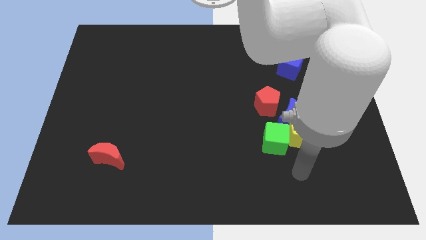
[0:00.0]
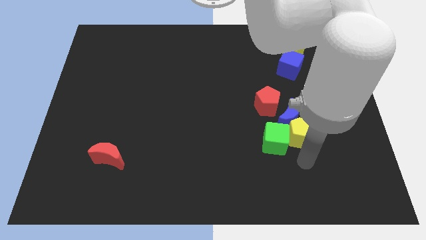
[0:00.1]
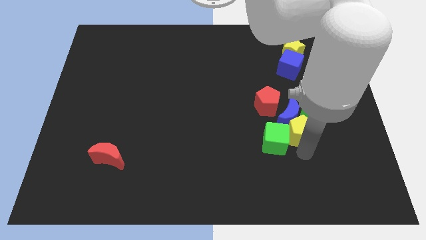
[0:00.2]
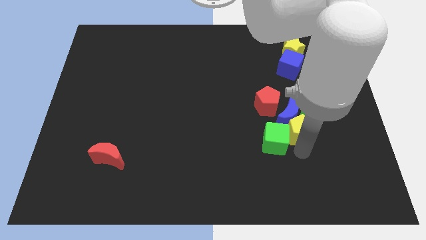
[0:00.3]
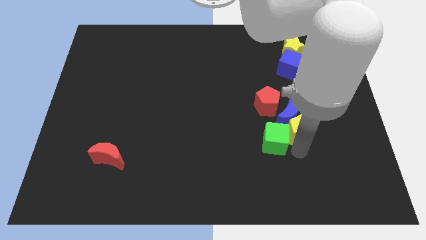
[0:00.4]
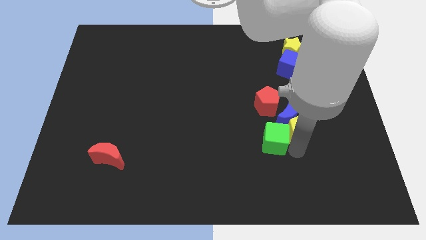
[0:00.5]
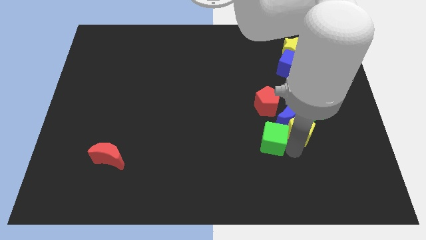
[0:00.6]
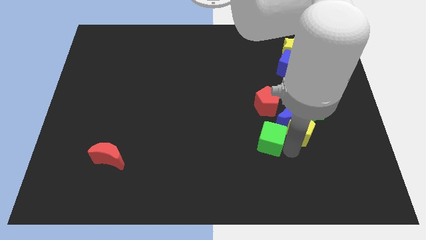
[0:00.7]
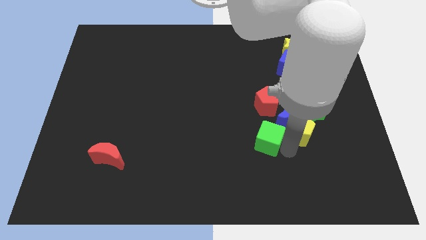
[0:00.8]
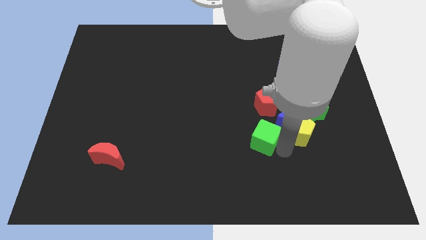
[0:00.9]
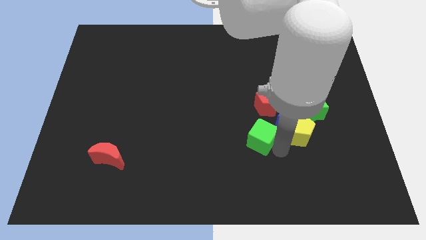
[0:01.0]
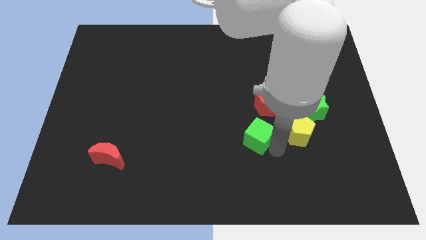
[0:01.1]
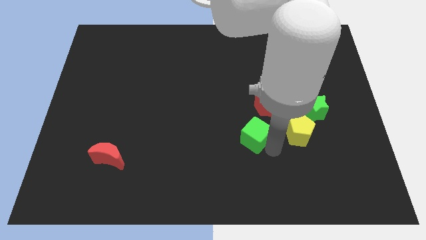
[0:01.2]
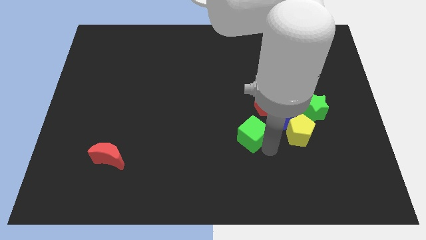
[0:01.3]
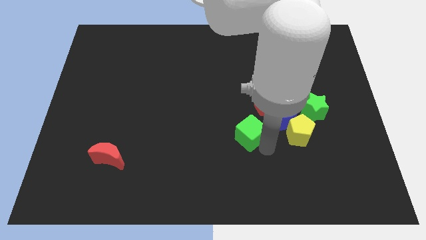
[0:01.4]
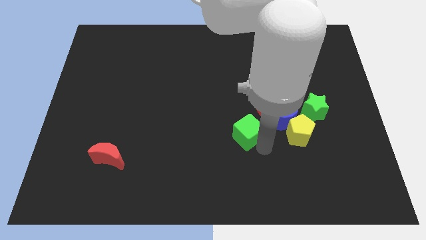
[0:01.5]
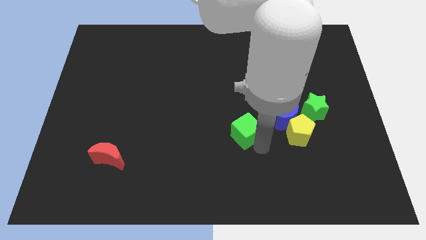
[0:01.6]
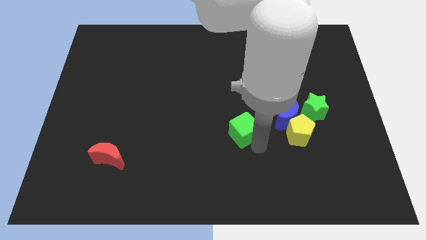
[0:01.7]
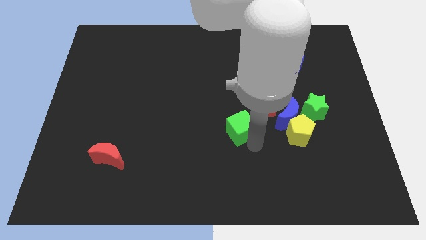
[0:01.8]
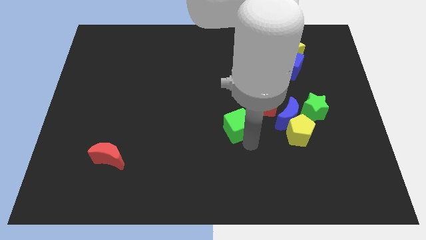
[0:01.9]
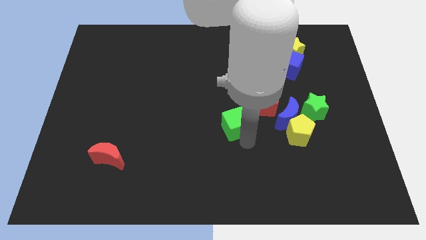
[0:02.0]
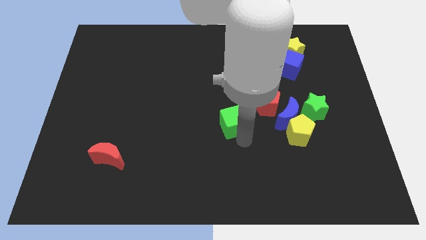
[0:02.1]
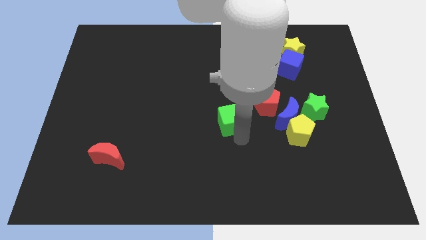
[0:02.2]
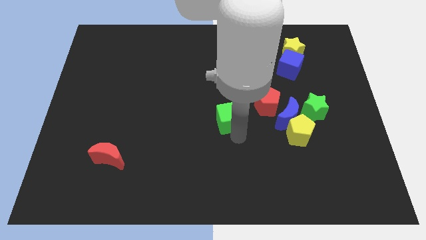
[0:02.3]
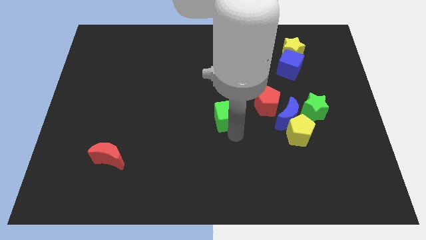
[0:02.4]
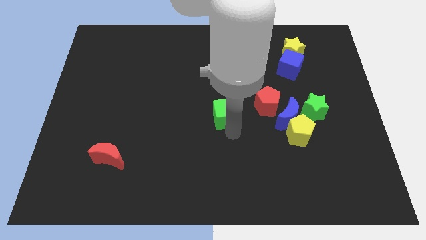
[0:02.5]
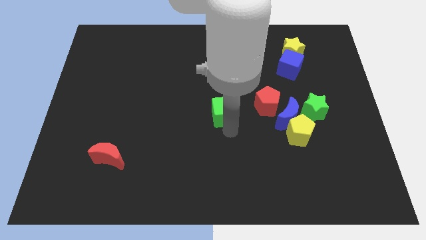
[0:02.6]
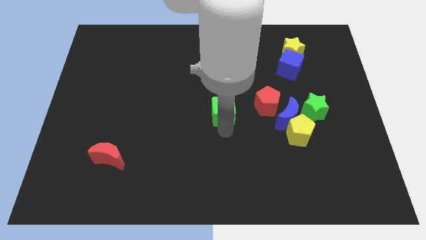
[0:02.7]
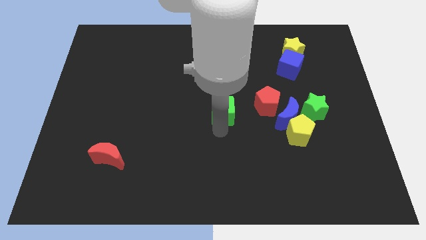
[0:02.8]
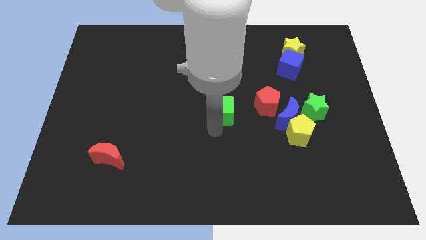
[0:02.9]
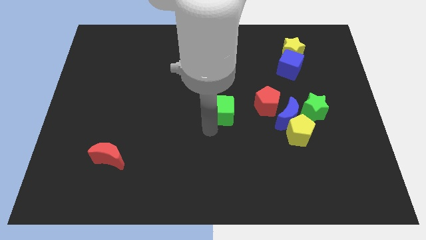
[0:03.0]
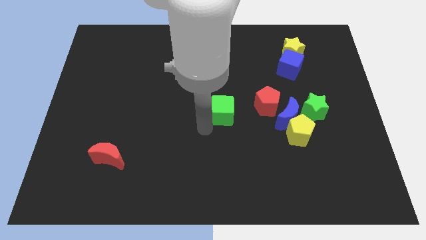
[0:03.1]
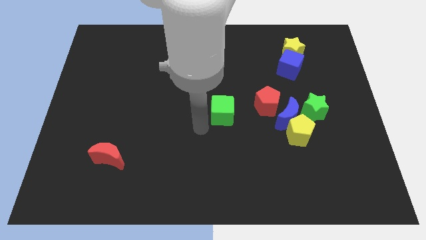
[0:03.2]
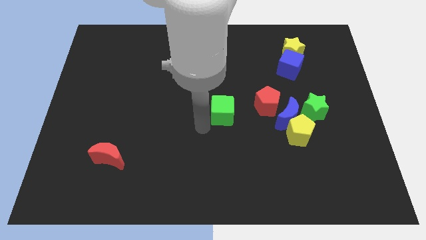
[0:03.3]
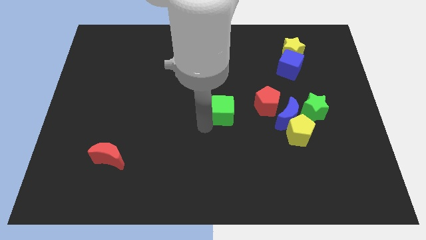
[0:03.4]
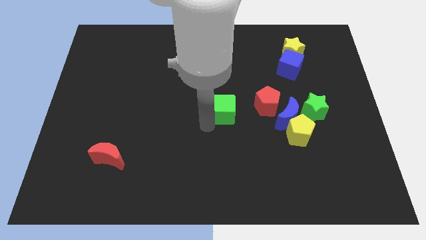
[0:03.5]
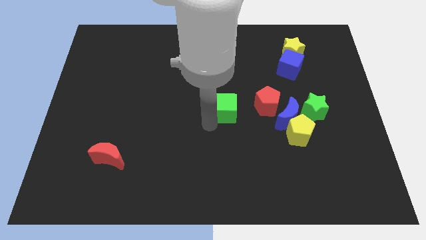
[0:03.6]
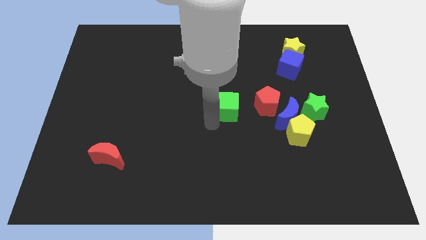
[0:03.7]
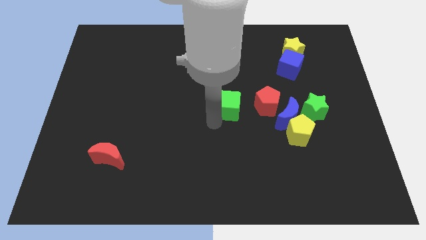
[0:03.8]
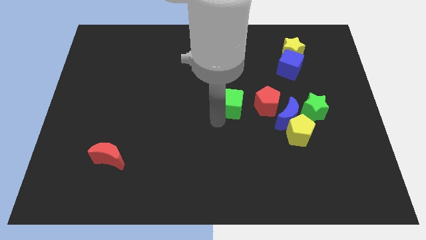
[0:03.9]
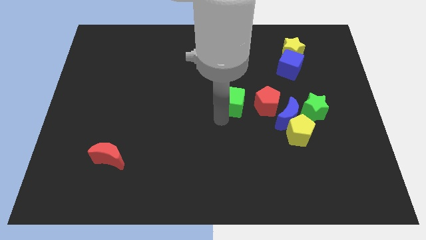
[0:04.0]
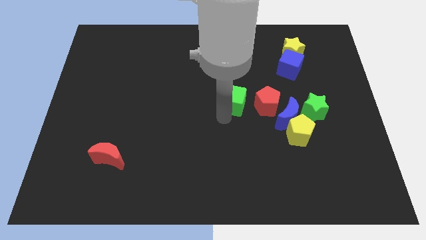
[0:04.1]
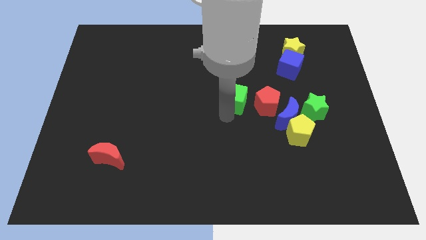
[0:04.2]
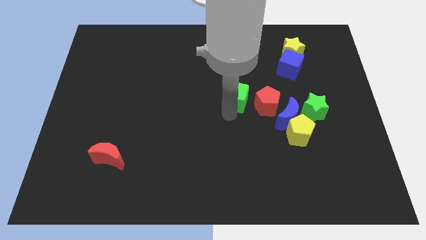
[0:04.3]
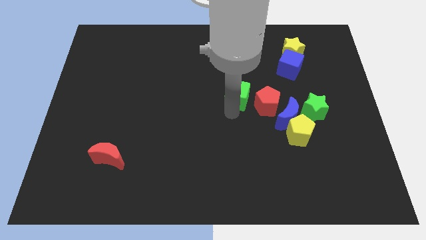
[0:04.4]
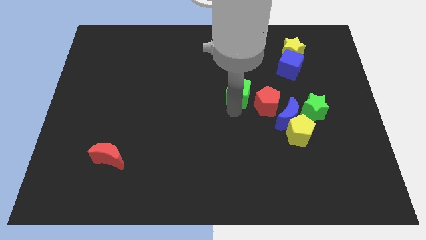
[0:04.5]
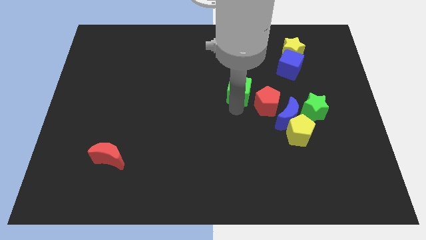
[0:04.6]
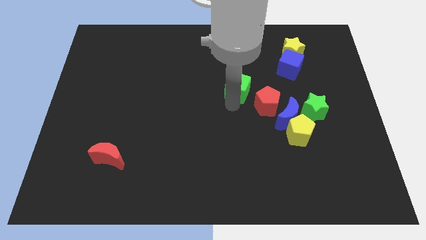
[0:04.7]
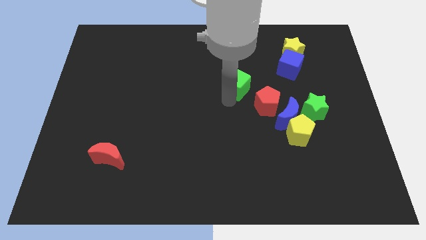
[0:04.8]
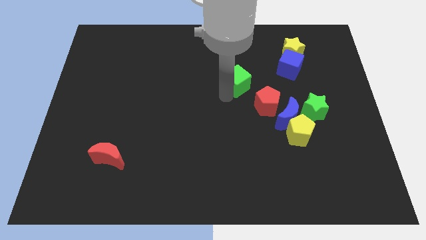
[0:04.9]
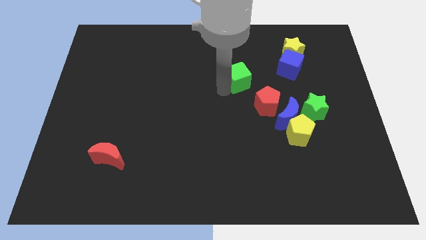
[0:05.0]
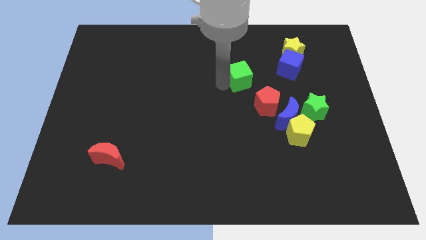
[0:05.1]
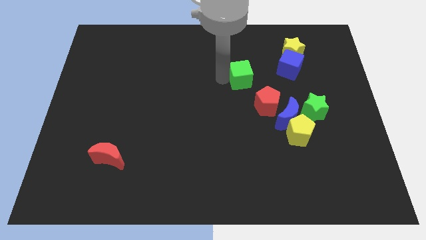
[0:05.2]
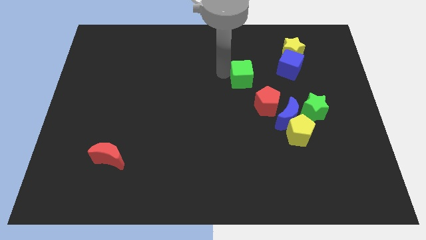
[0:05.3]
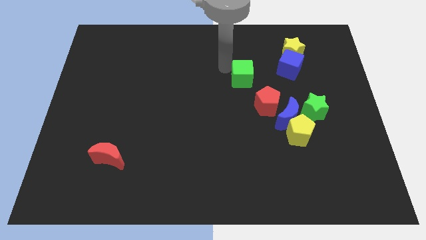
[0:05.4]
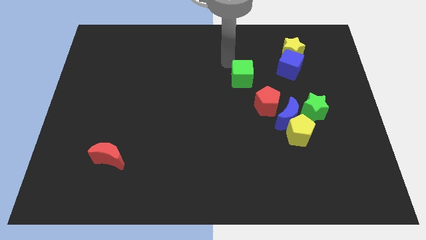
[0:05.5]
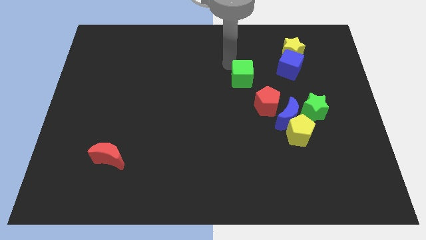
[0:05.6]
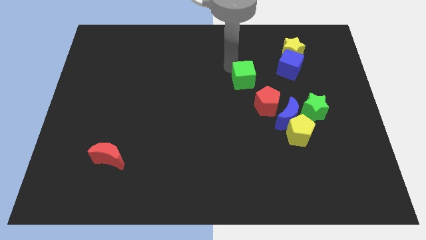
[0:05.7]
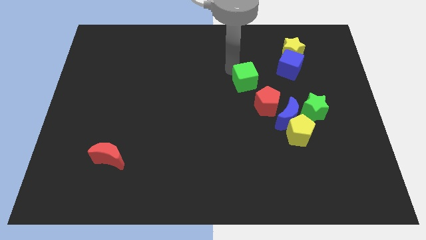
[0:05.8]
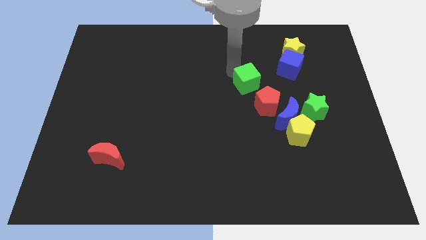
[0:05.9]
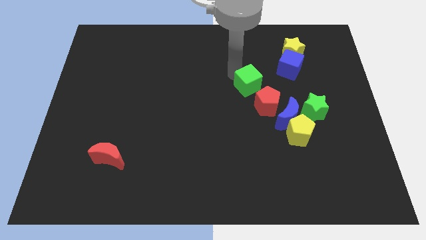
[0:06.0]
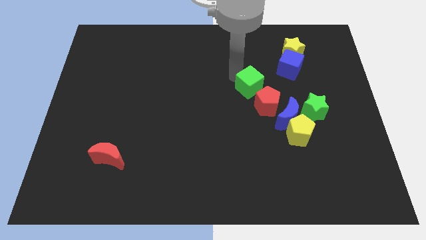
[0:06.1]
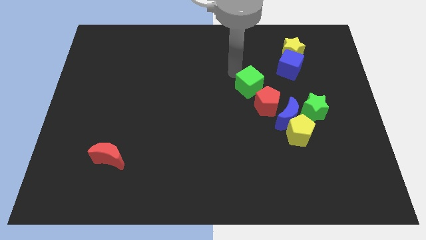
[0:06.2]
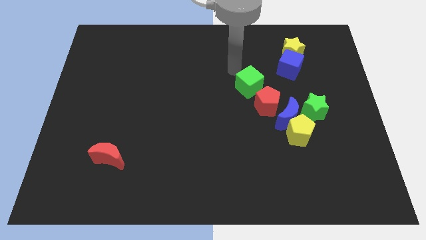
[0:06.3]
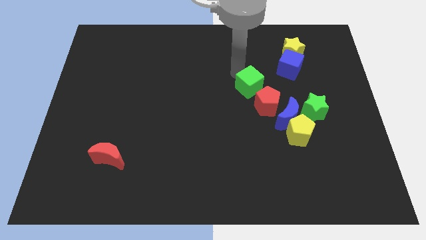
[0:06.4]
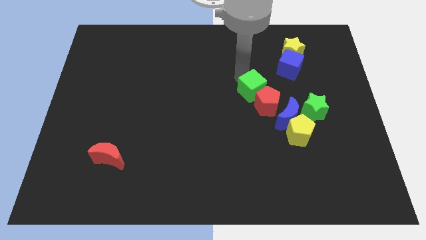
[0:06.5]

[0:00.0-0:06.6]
move the green cube to the top left of the blue moon
